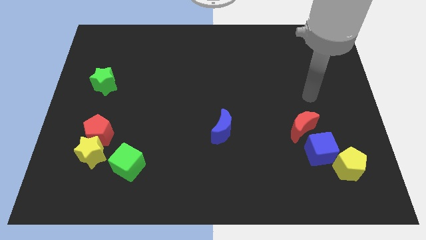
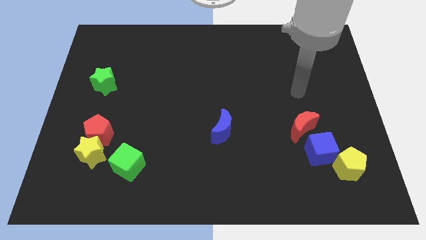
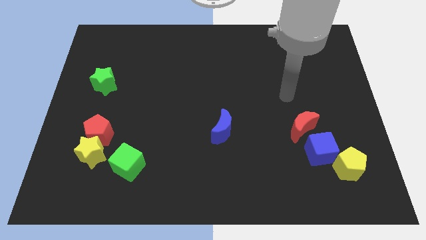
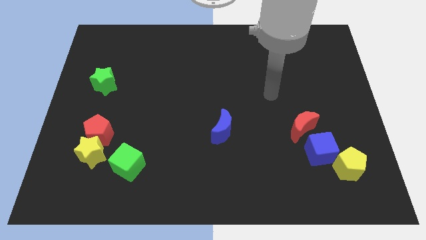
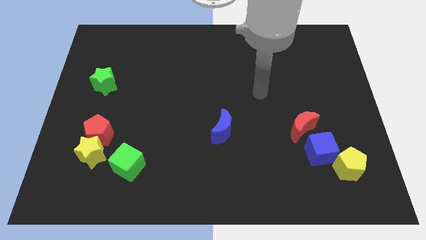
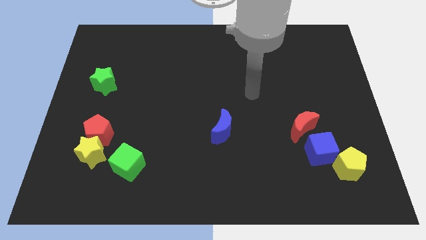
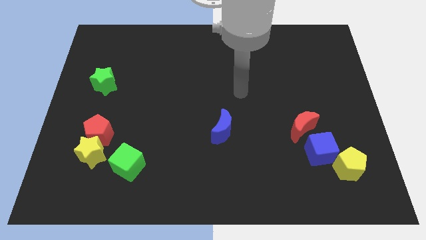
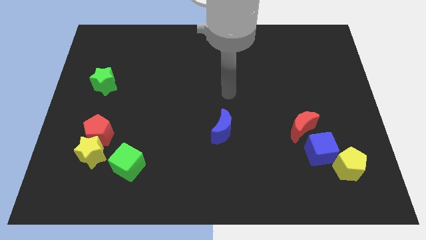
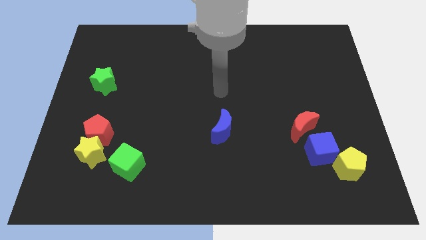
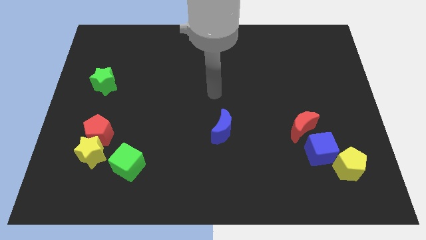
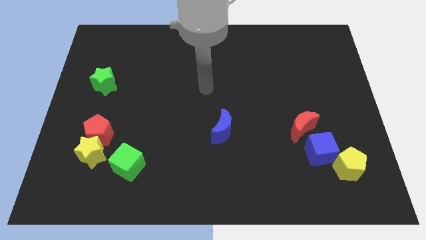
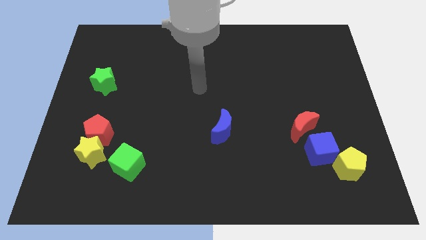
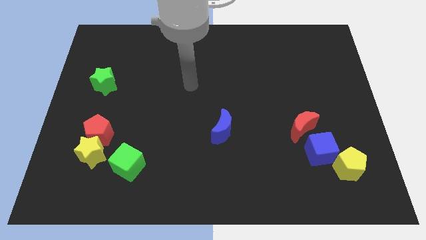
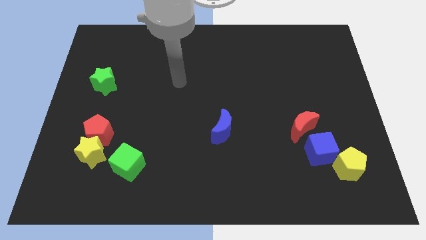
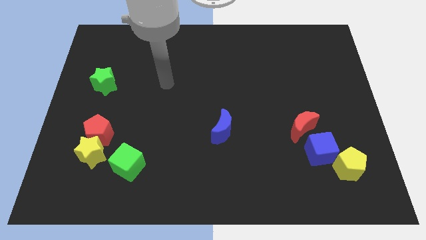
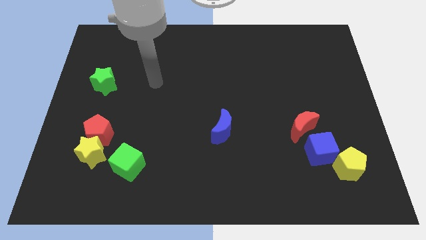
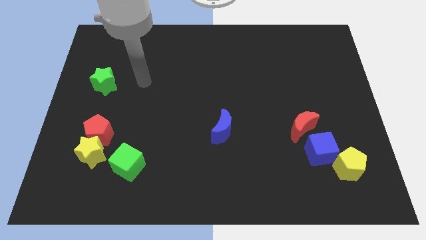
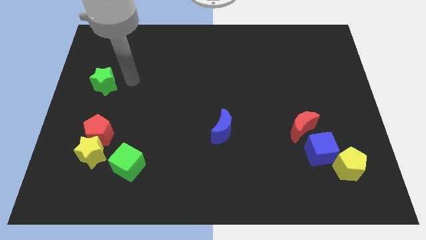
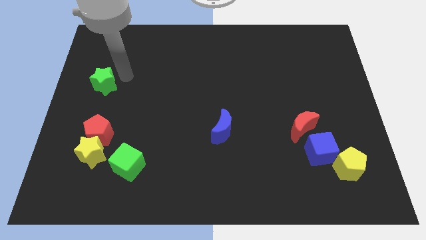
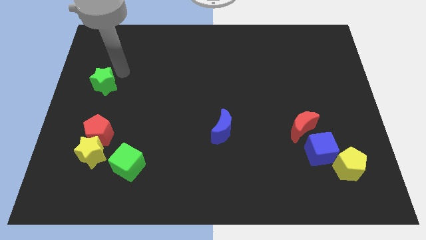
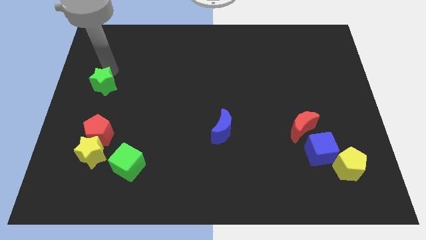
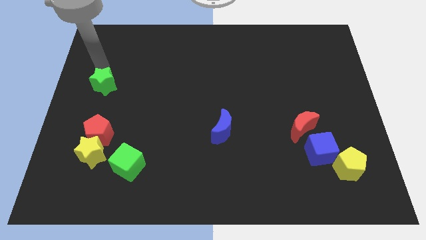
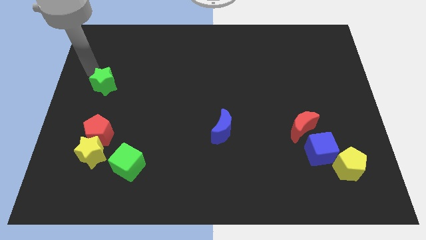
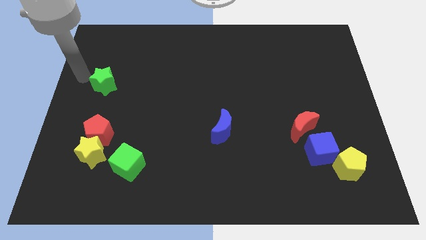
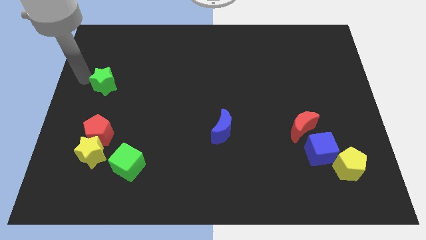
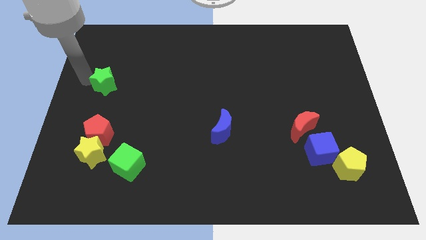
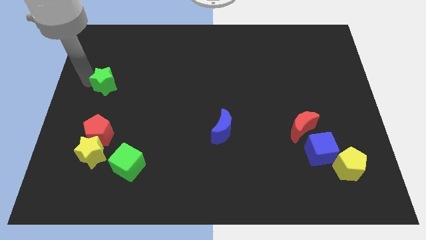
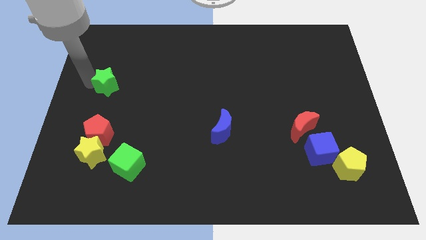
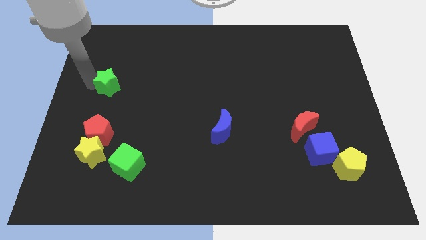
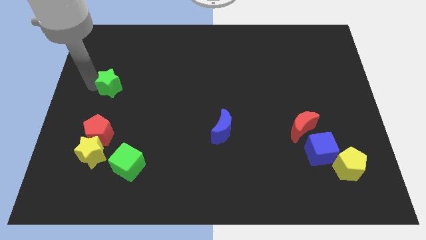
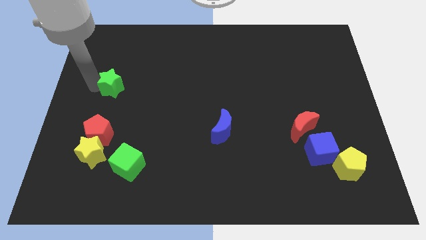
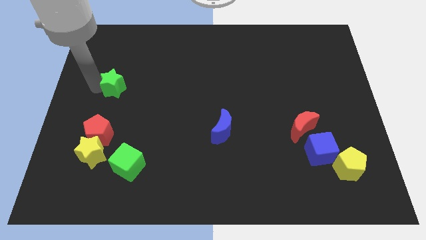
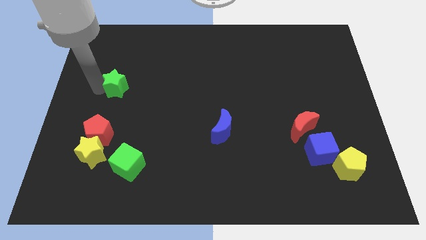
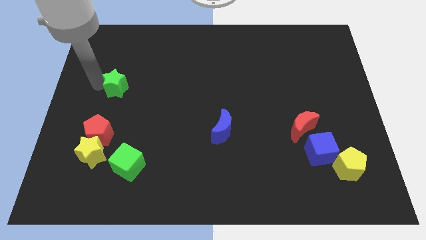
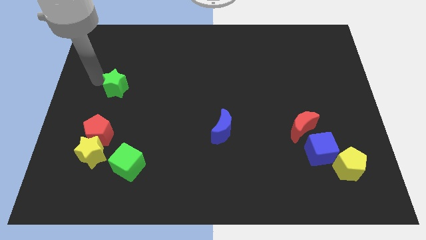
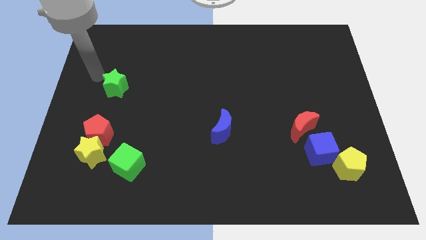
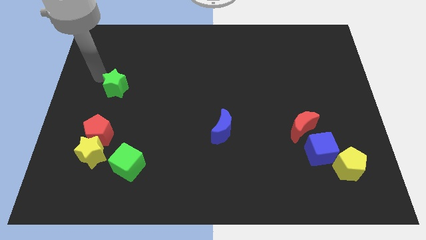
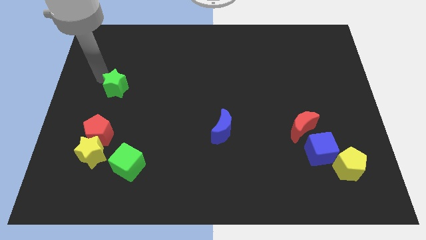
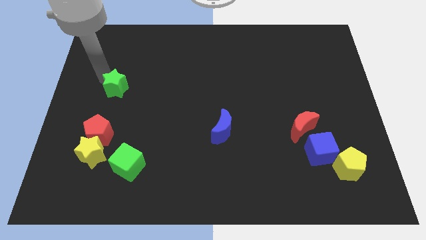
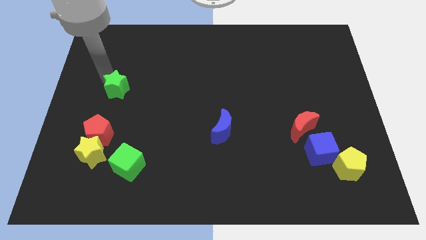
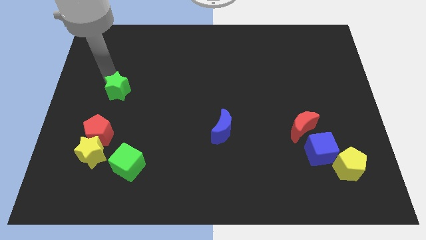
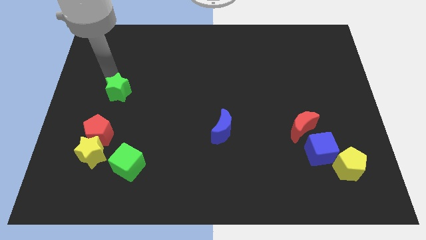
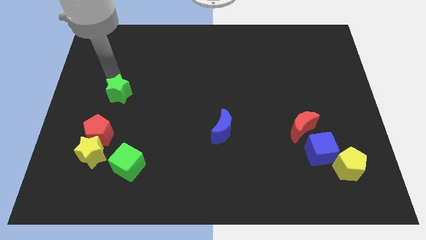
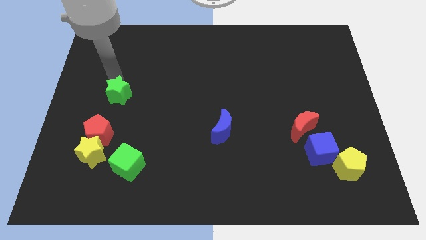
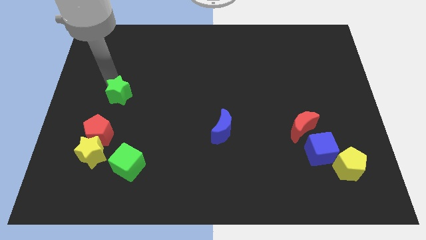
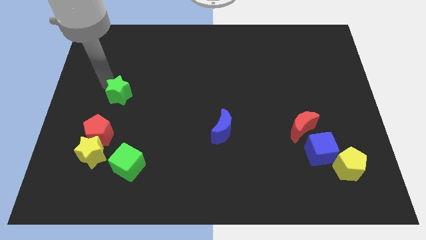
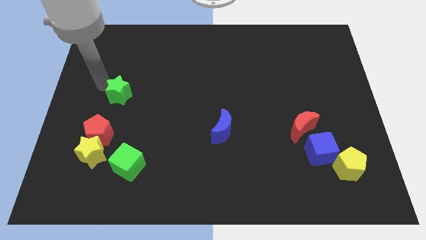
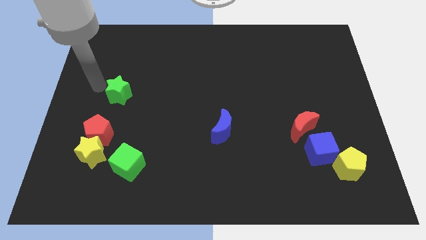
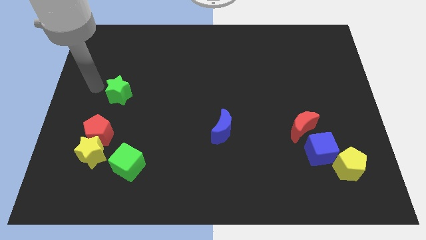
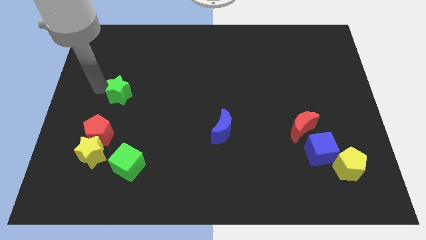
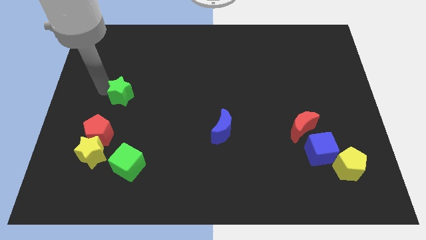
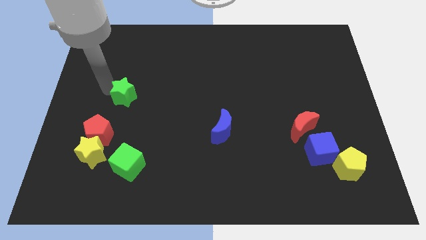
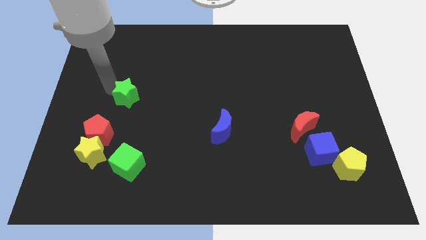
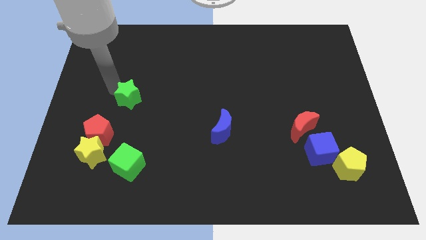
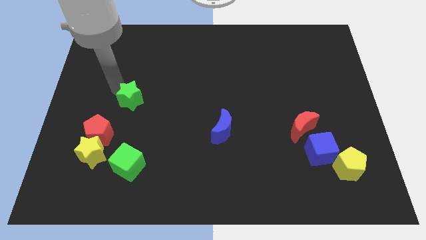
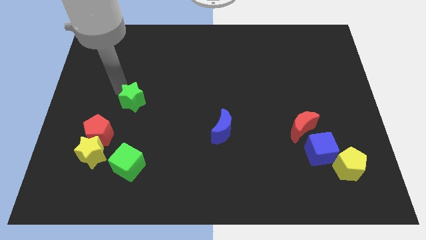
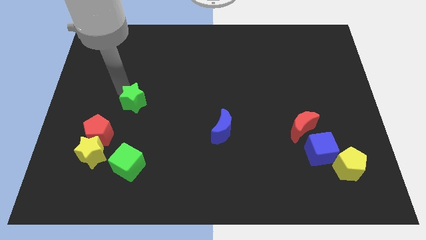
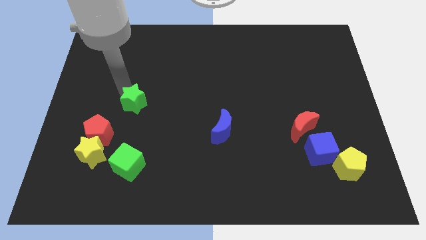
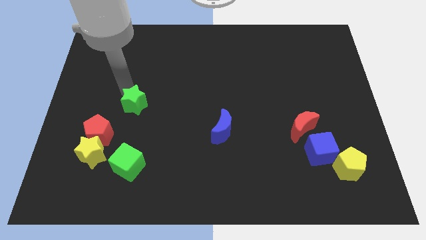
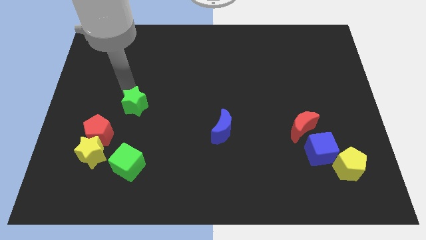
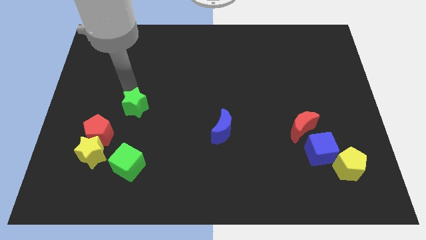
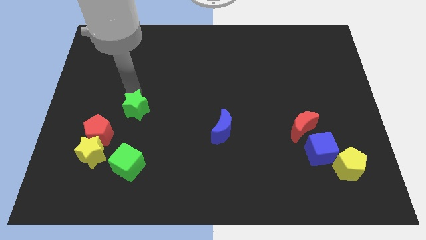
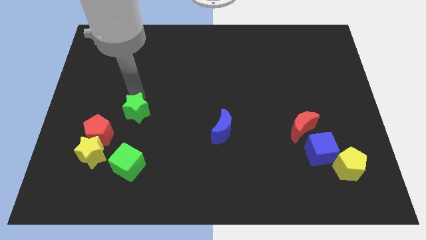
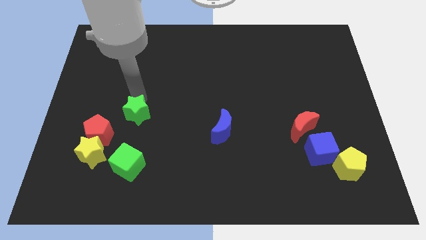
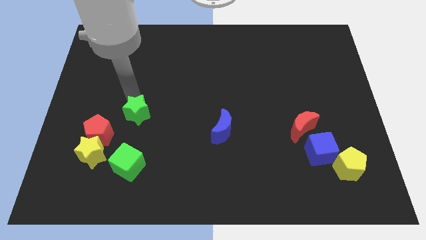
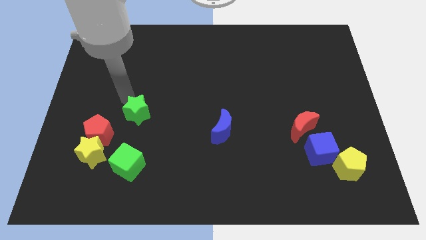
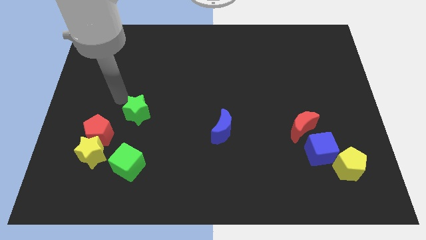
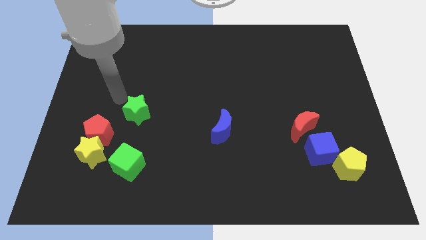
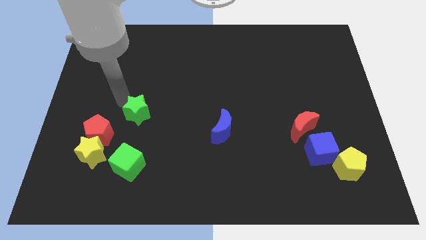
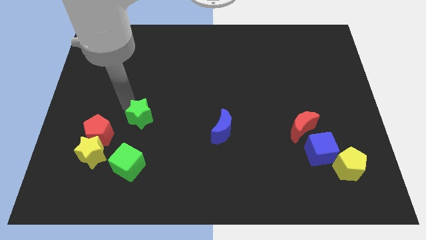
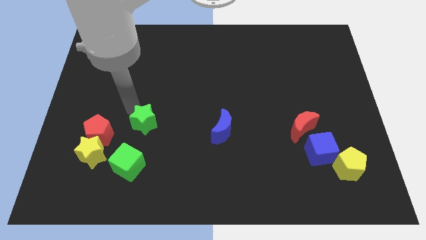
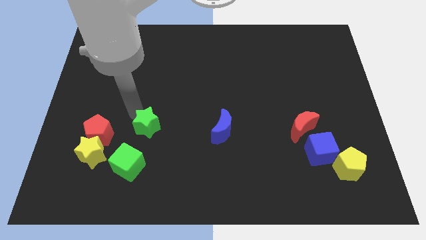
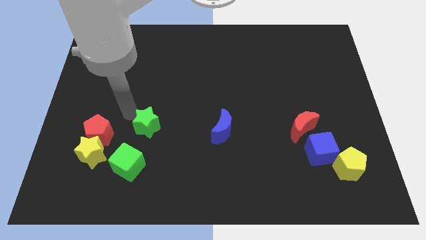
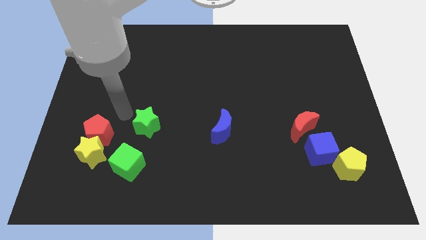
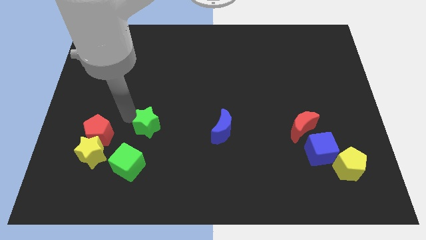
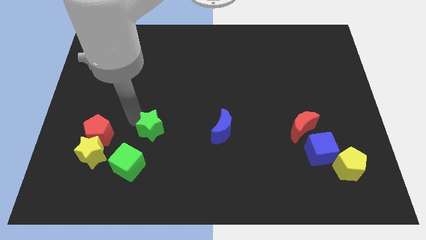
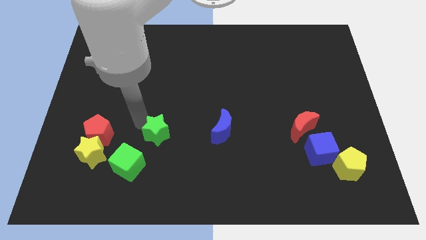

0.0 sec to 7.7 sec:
move the green star diagonally down and right
